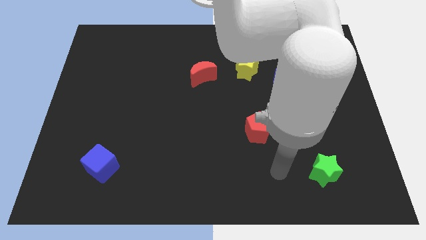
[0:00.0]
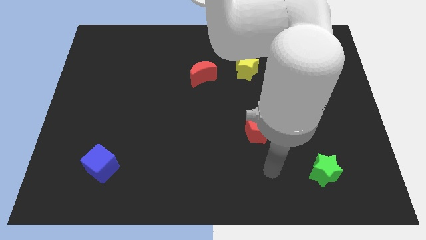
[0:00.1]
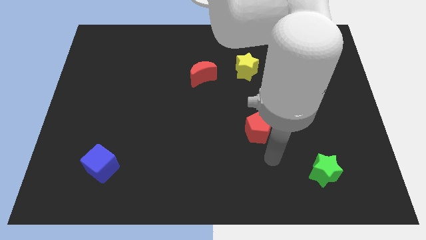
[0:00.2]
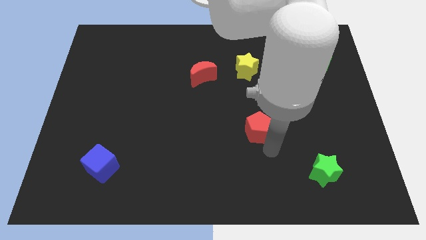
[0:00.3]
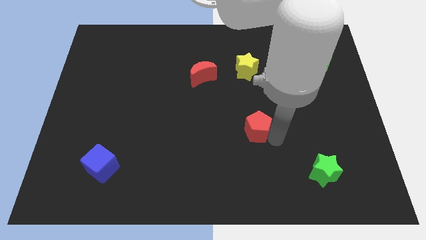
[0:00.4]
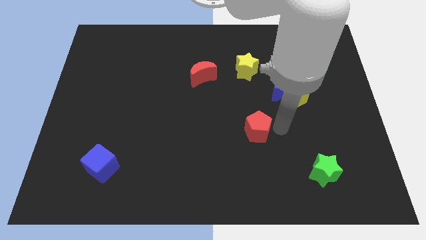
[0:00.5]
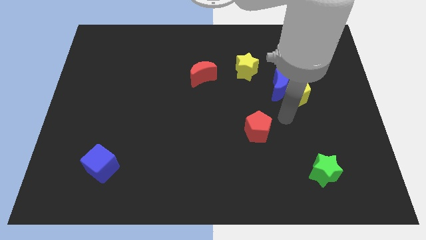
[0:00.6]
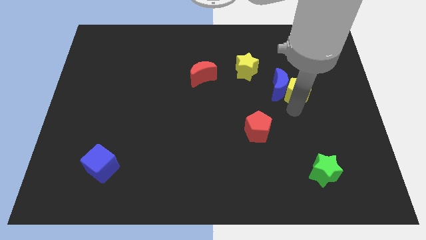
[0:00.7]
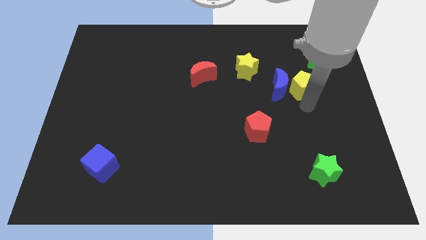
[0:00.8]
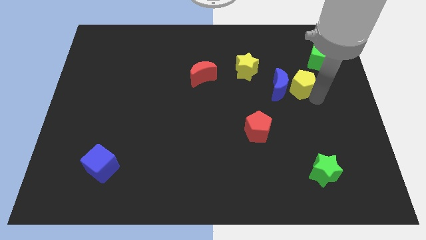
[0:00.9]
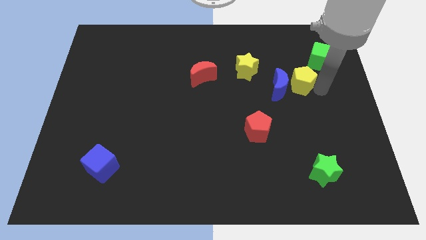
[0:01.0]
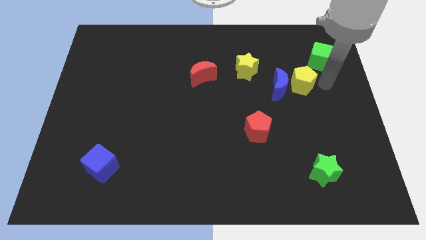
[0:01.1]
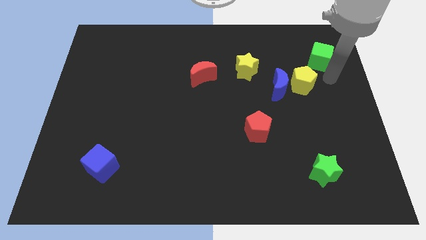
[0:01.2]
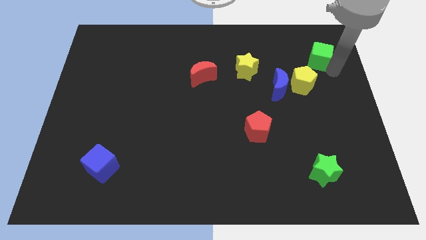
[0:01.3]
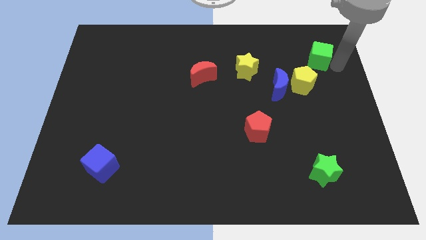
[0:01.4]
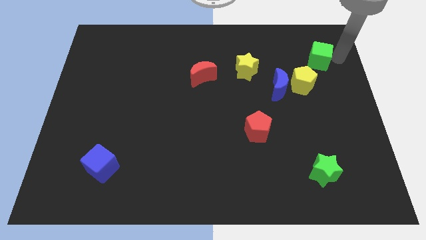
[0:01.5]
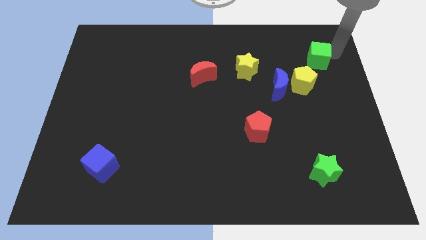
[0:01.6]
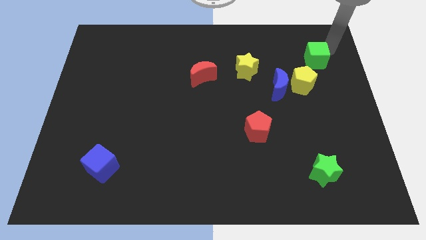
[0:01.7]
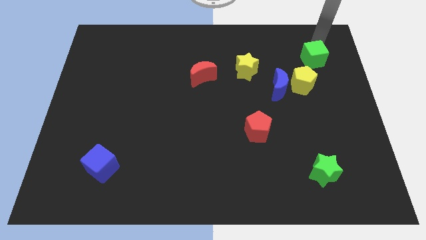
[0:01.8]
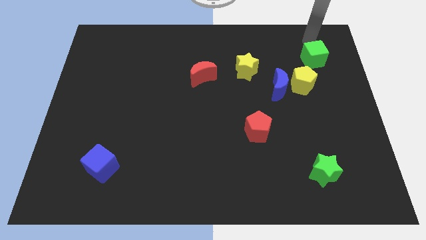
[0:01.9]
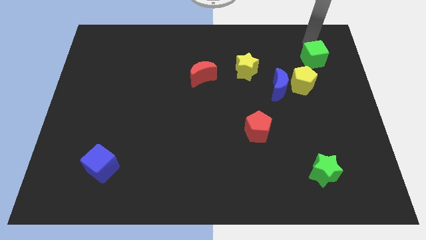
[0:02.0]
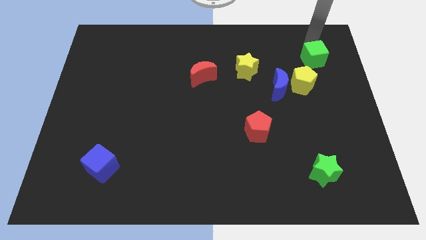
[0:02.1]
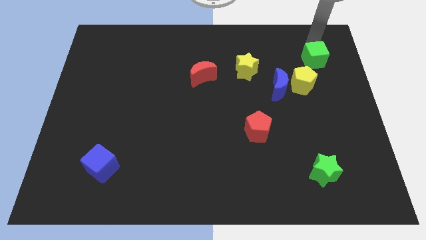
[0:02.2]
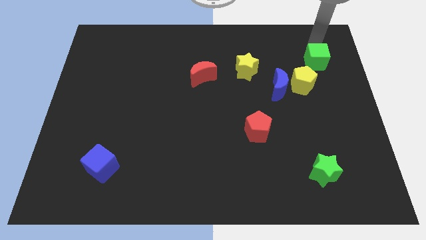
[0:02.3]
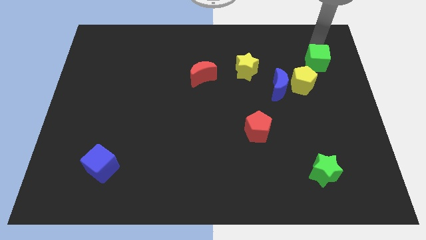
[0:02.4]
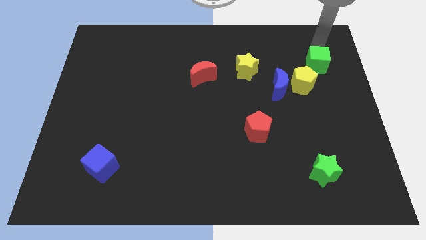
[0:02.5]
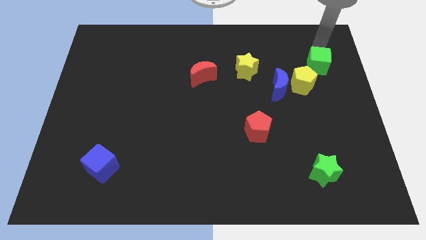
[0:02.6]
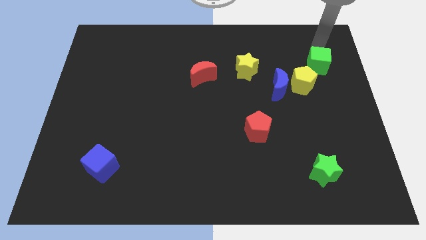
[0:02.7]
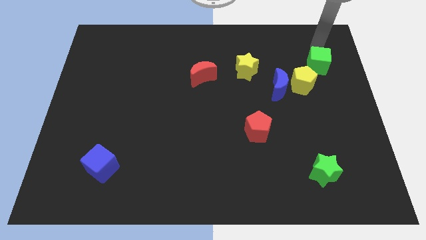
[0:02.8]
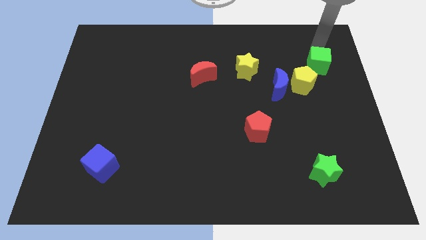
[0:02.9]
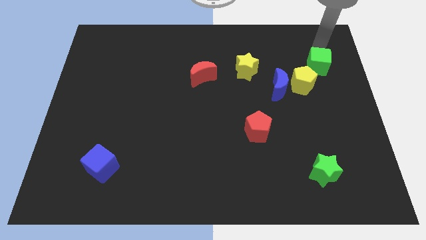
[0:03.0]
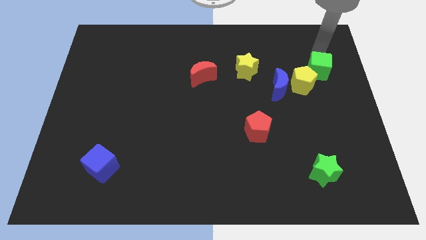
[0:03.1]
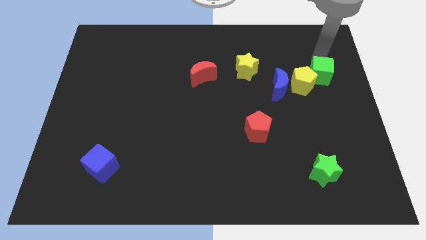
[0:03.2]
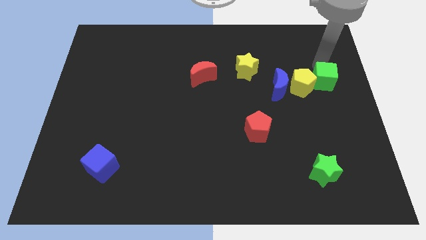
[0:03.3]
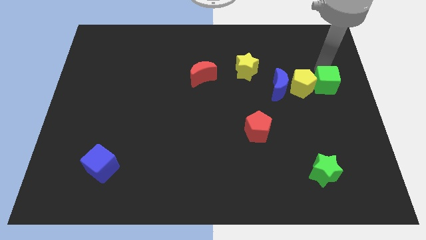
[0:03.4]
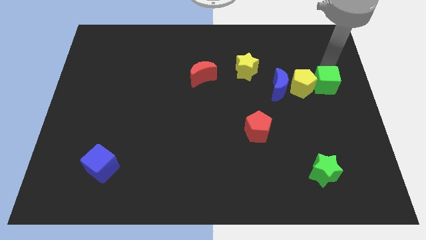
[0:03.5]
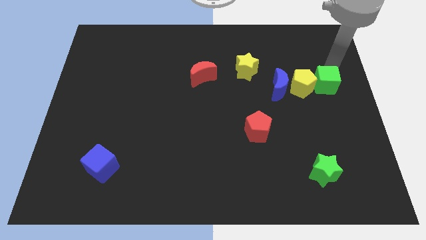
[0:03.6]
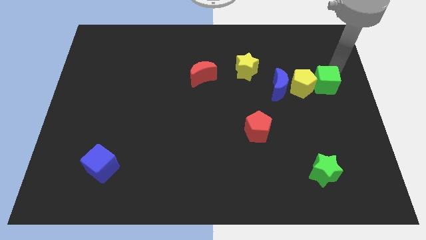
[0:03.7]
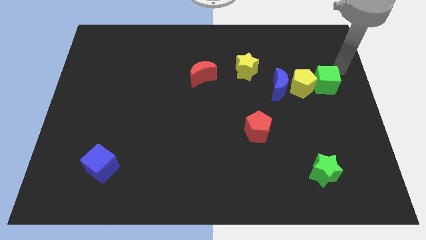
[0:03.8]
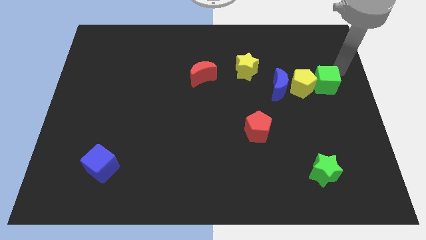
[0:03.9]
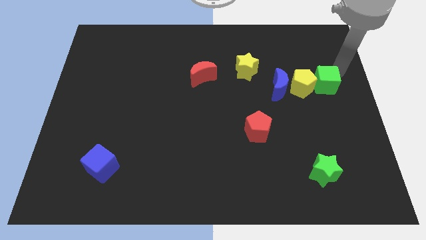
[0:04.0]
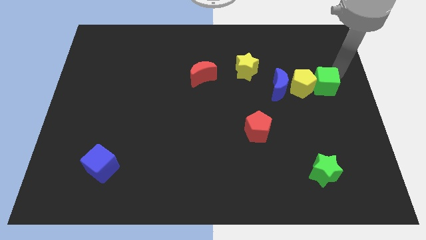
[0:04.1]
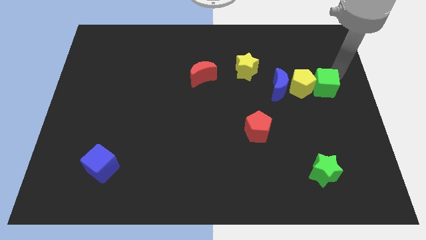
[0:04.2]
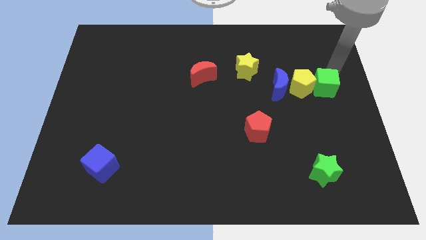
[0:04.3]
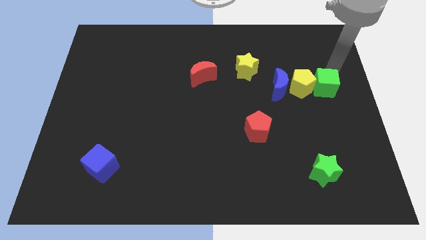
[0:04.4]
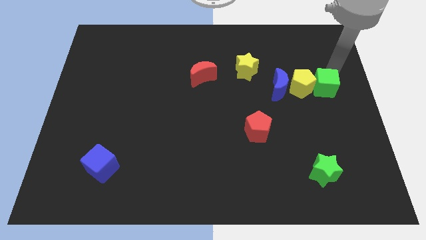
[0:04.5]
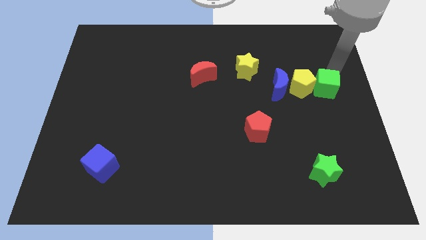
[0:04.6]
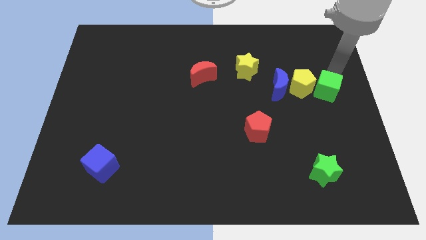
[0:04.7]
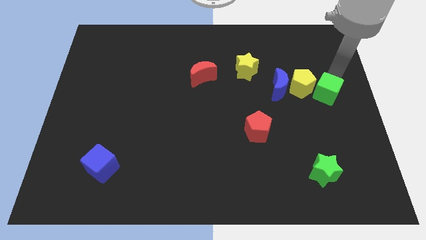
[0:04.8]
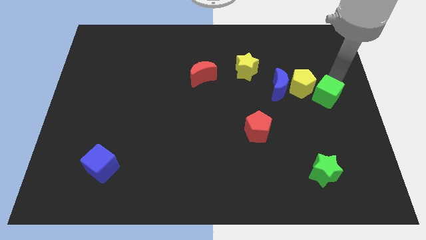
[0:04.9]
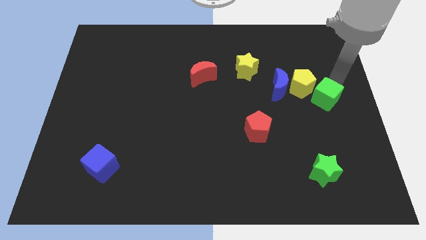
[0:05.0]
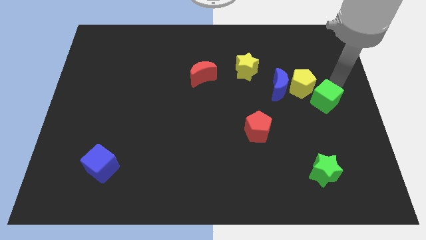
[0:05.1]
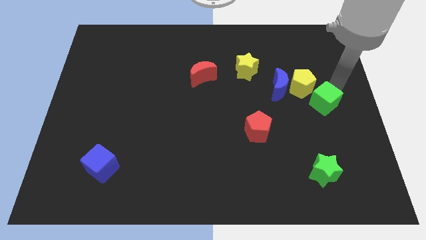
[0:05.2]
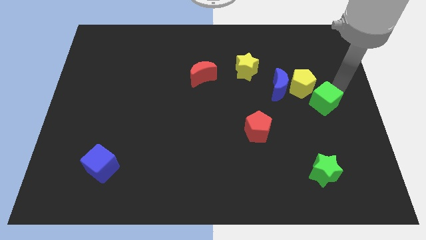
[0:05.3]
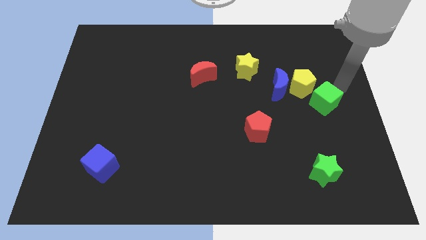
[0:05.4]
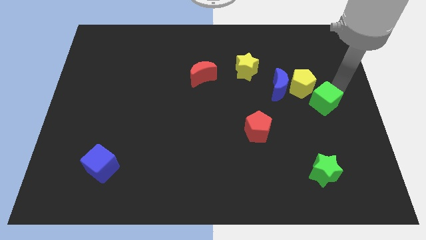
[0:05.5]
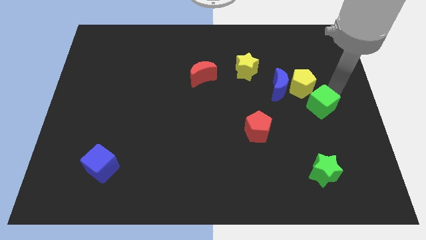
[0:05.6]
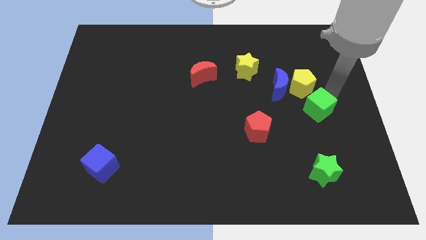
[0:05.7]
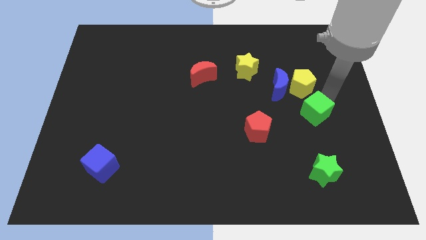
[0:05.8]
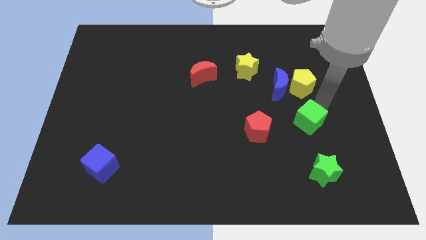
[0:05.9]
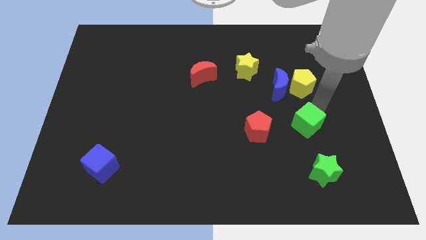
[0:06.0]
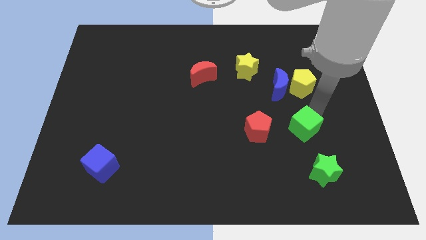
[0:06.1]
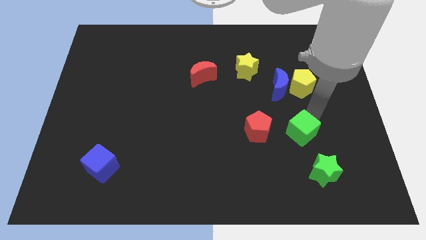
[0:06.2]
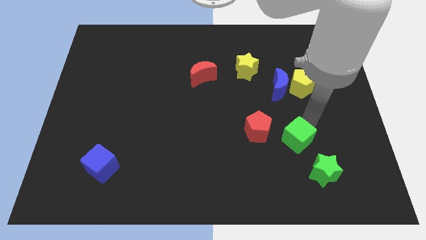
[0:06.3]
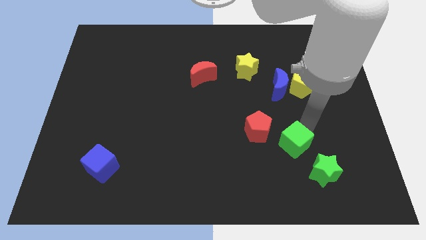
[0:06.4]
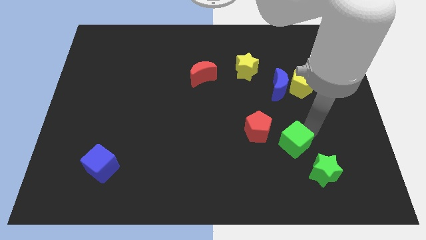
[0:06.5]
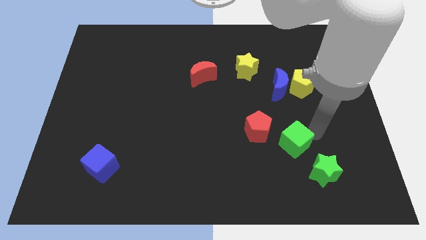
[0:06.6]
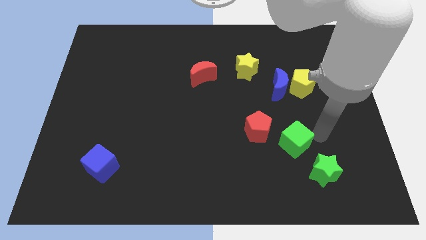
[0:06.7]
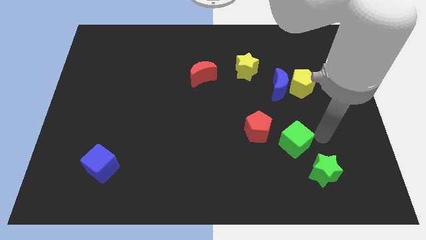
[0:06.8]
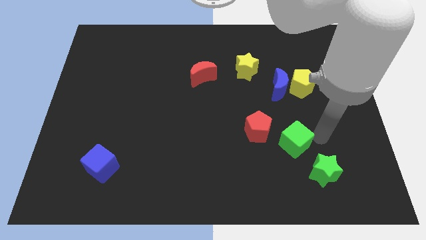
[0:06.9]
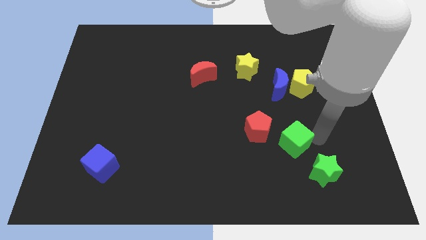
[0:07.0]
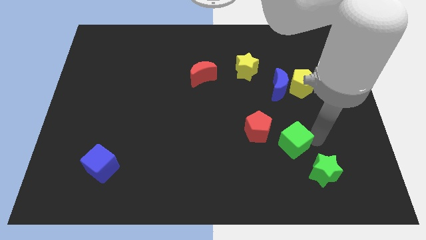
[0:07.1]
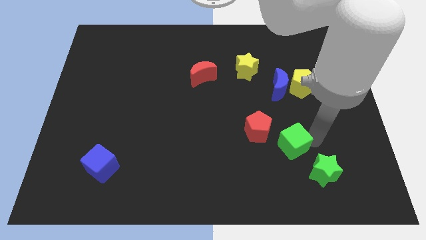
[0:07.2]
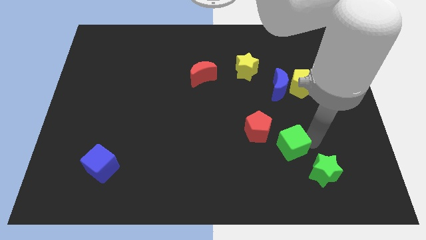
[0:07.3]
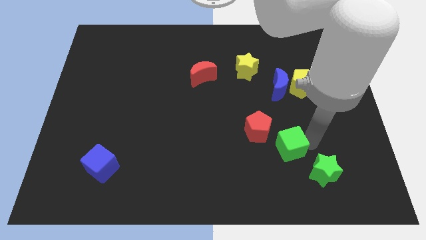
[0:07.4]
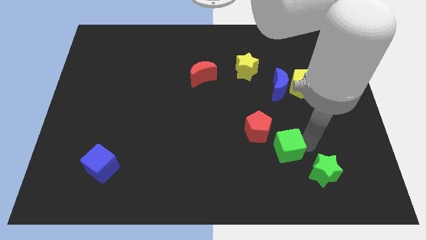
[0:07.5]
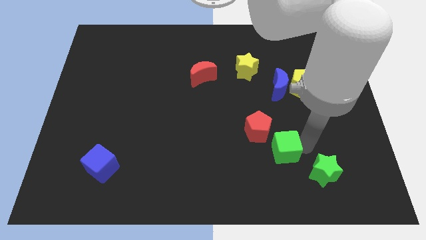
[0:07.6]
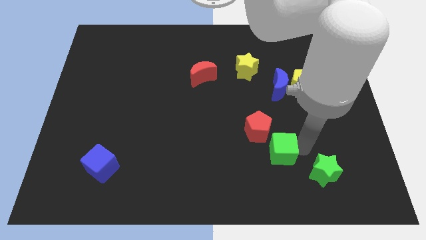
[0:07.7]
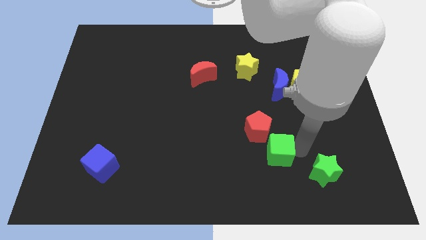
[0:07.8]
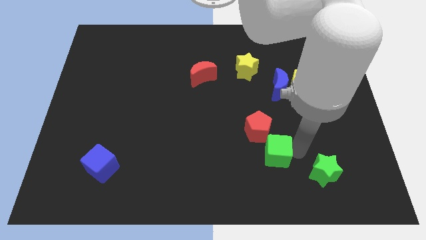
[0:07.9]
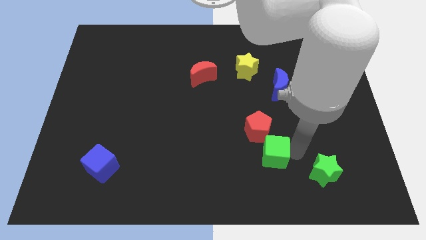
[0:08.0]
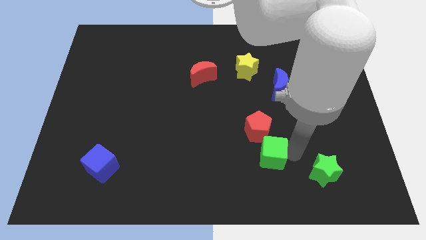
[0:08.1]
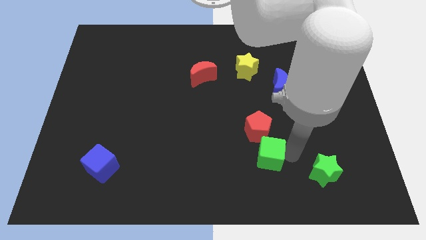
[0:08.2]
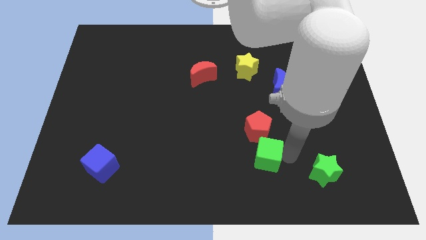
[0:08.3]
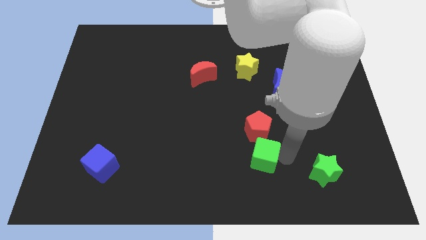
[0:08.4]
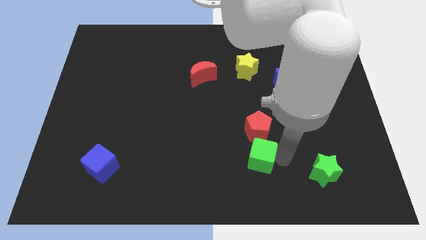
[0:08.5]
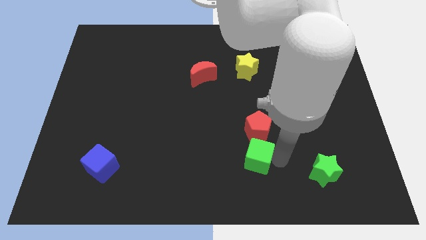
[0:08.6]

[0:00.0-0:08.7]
push the green cube to the bottom left of the red pentagon
